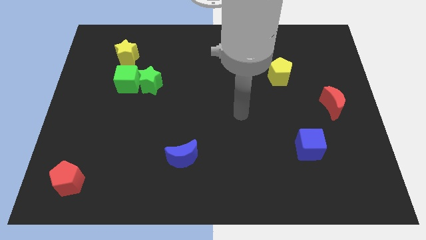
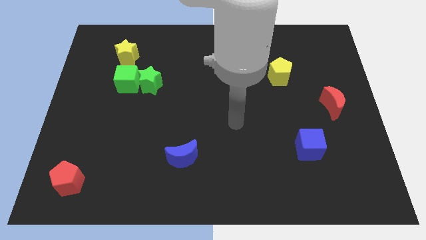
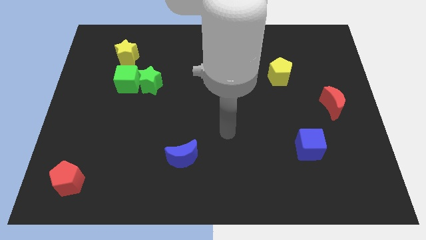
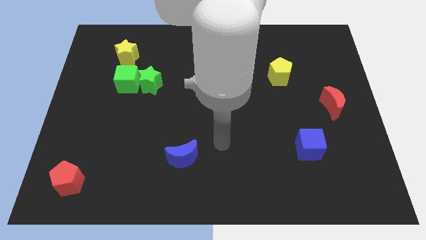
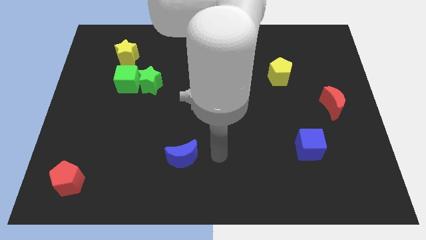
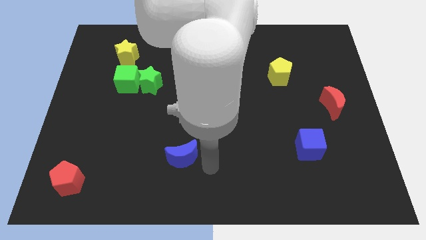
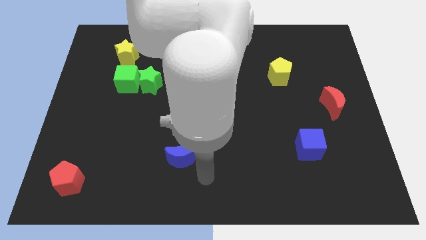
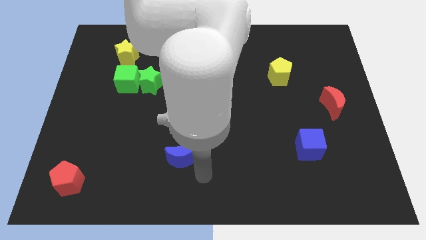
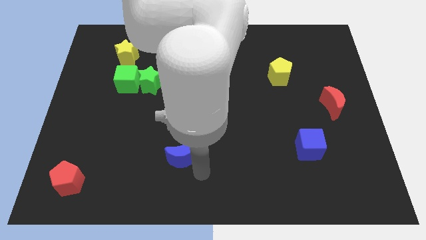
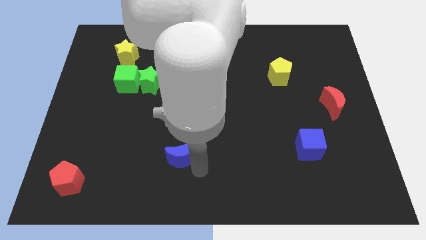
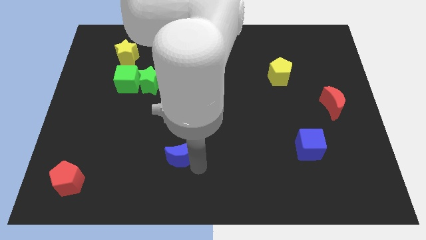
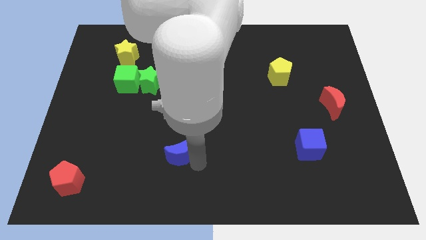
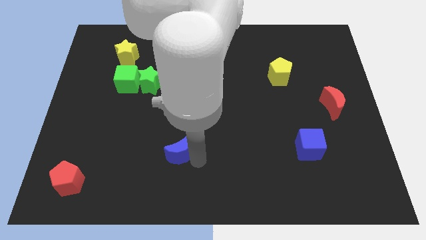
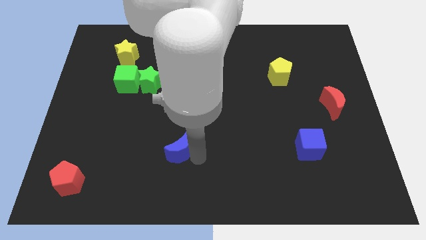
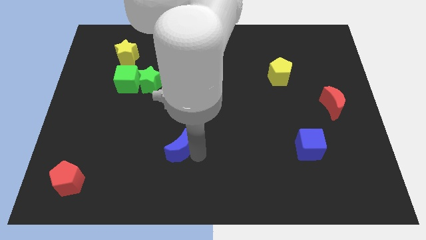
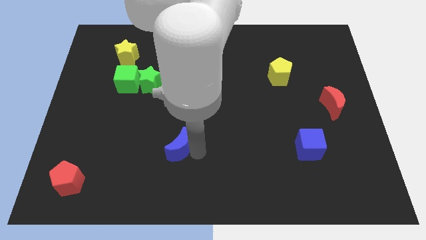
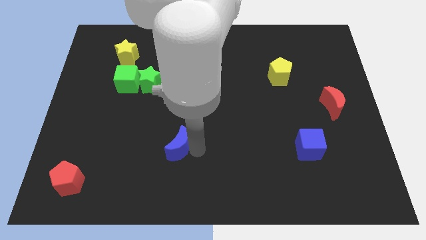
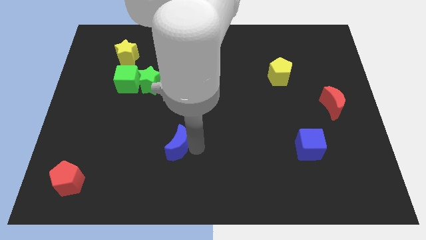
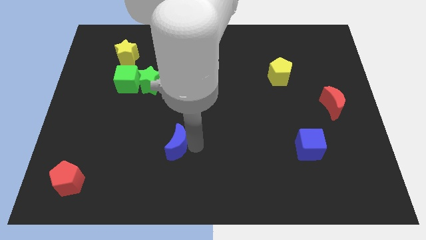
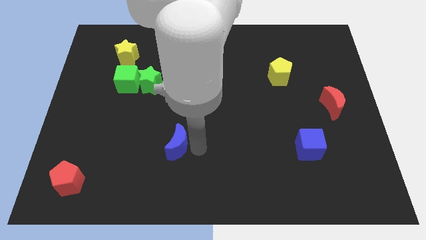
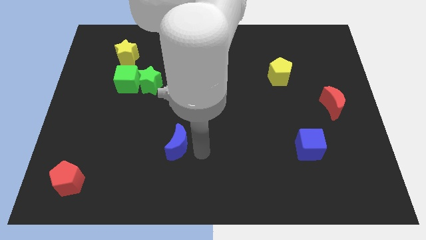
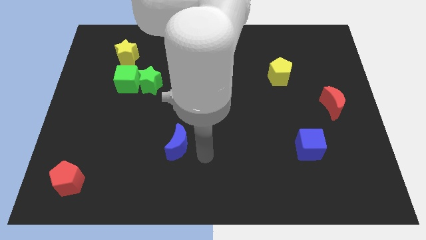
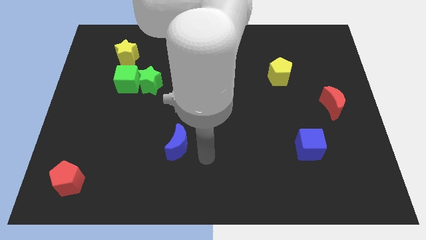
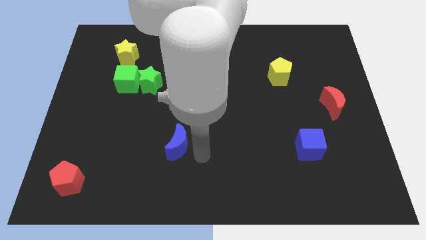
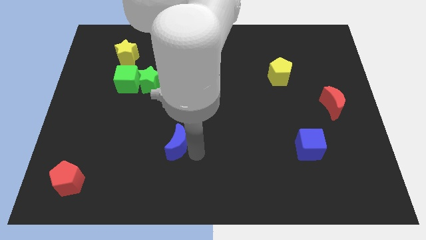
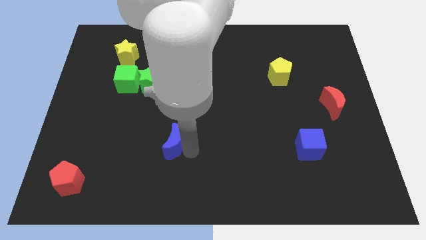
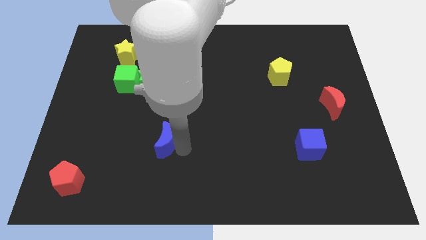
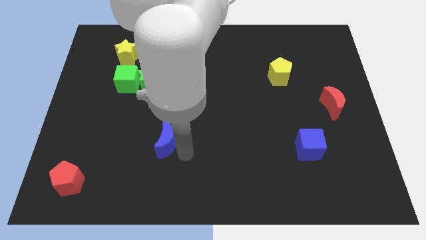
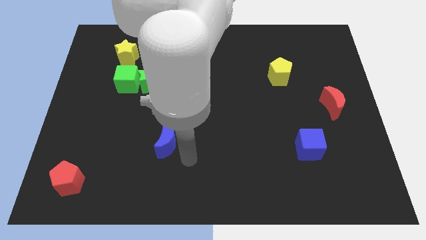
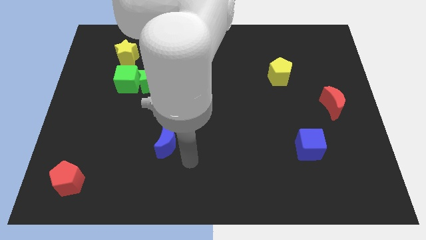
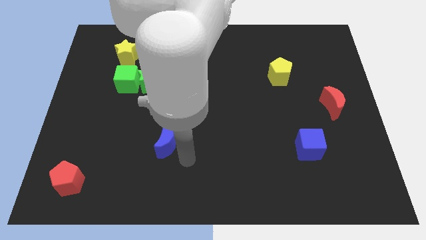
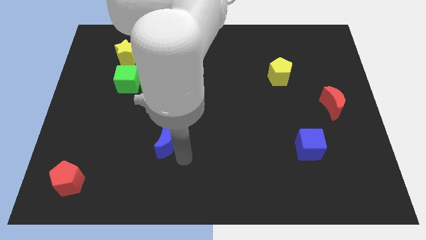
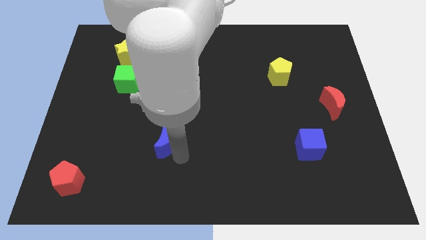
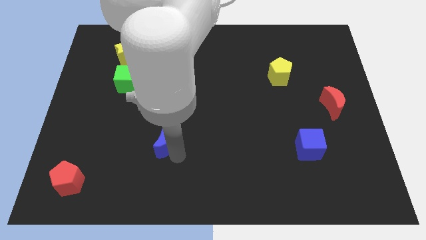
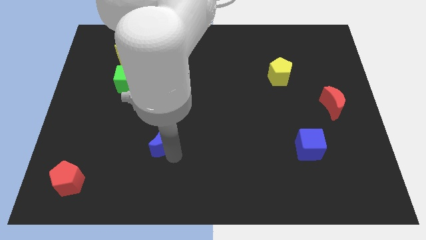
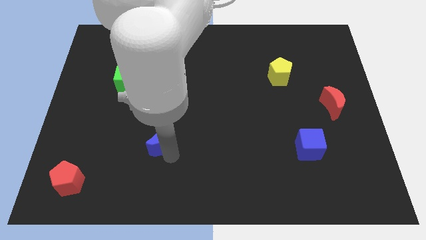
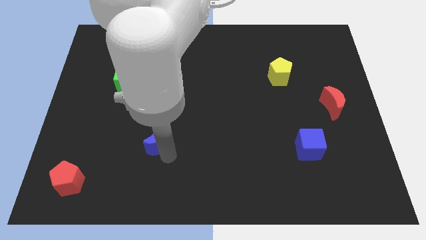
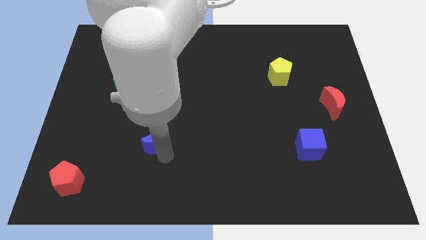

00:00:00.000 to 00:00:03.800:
slide the blue moon upwards and to the left diagonally slightly

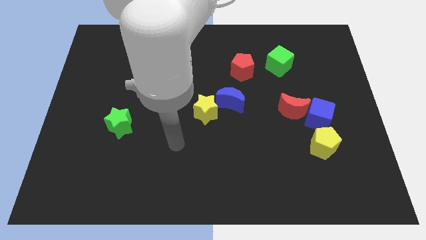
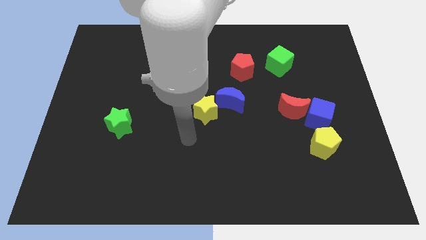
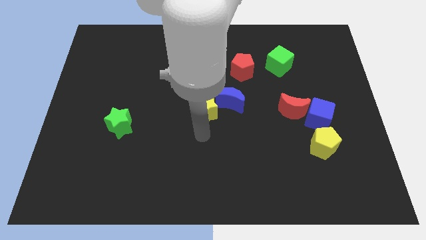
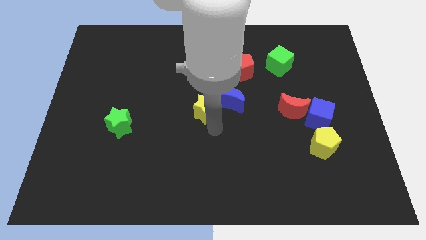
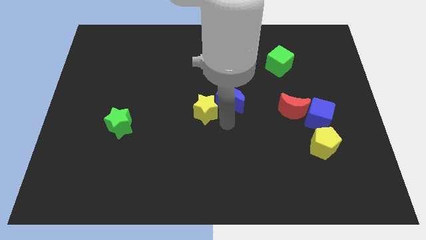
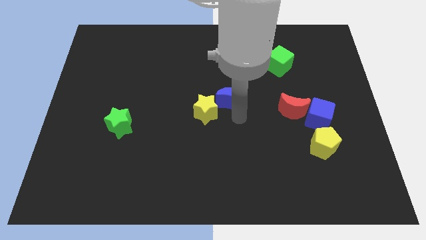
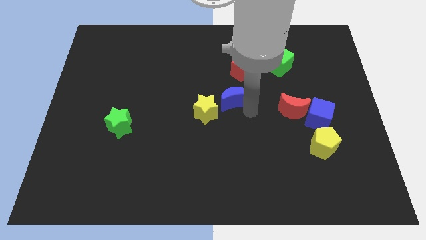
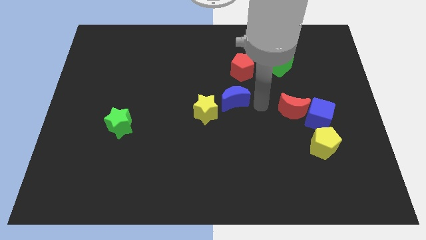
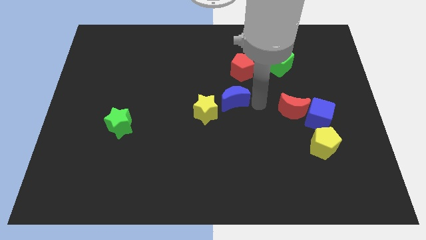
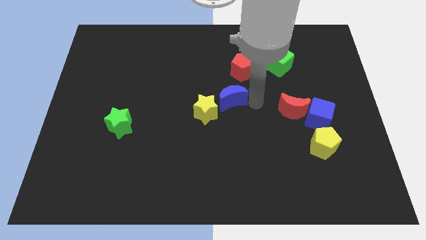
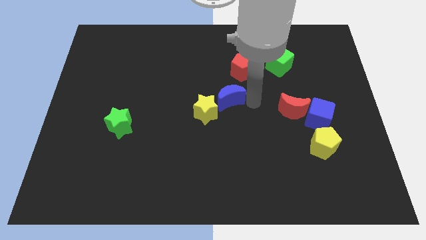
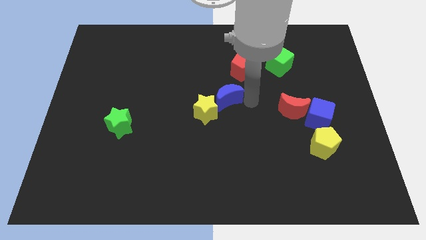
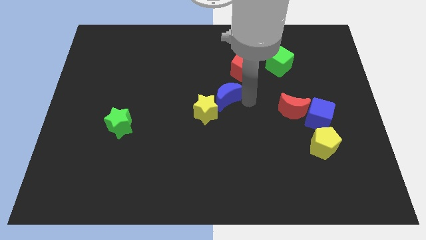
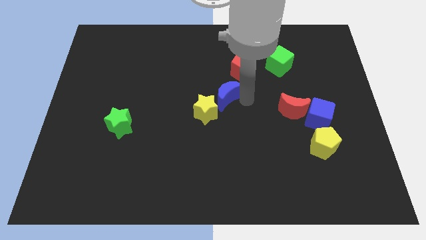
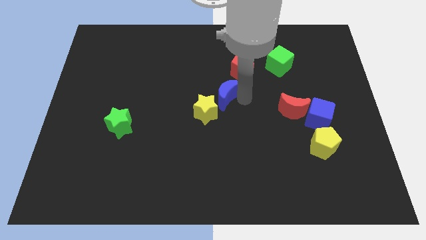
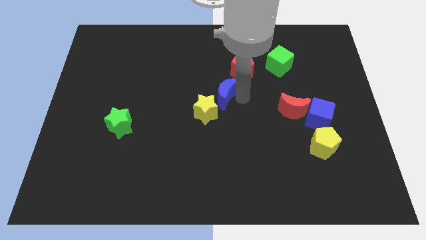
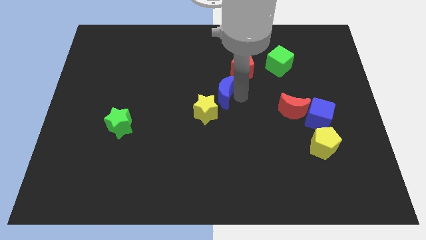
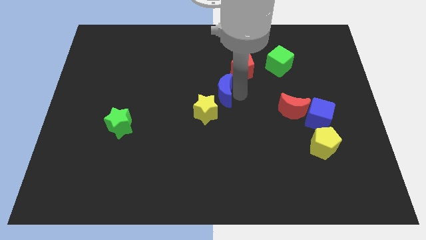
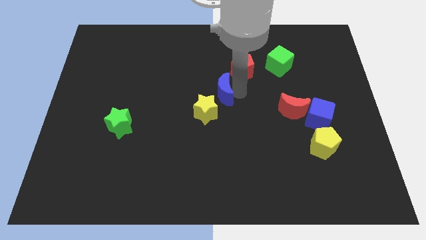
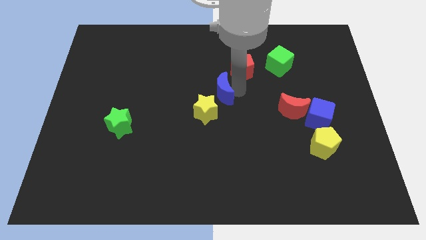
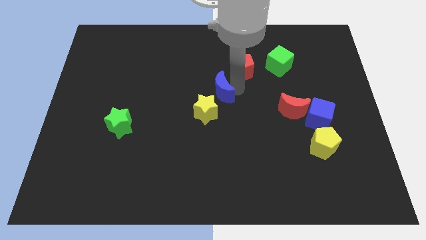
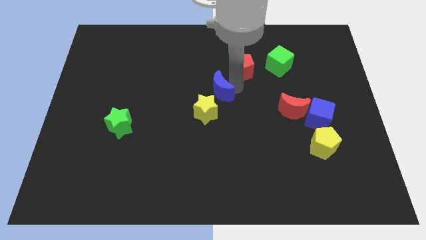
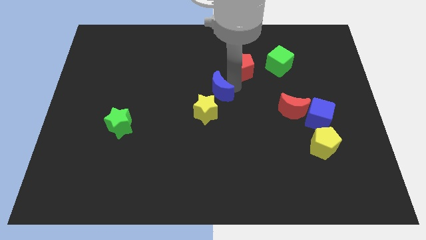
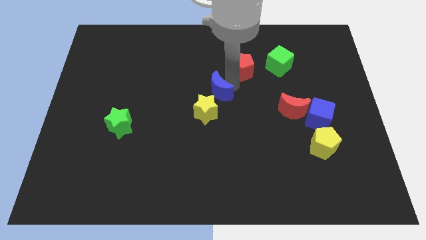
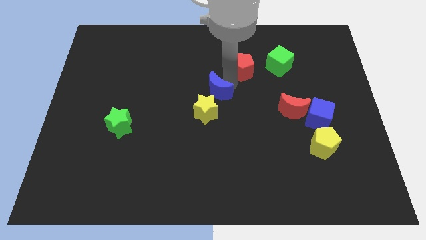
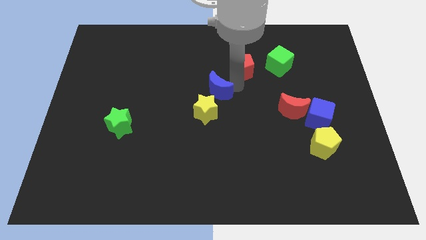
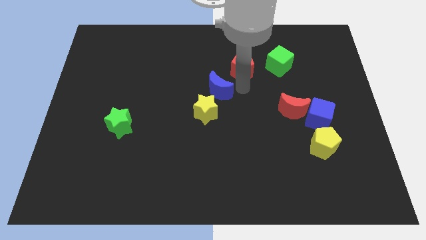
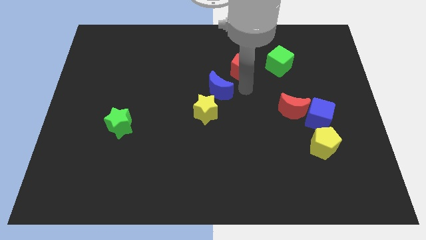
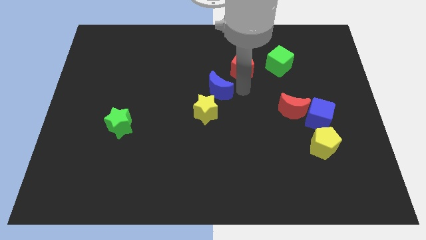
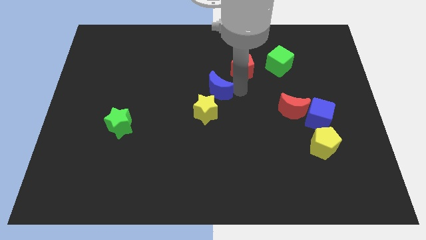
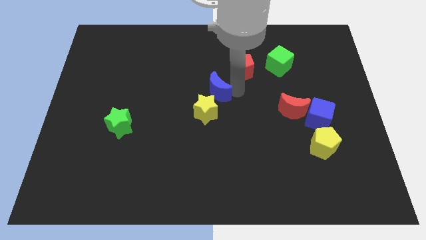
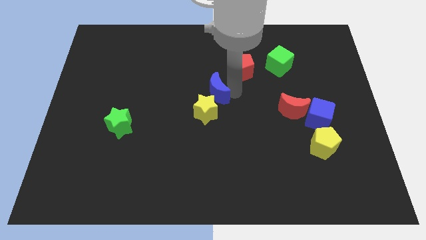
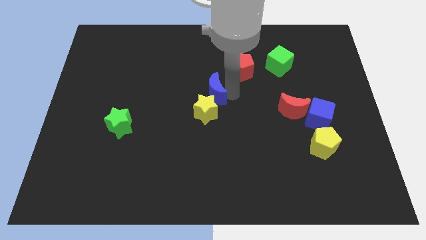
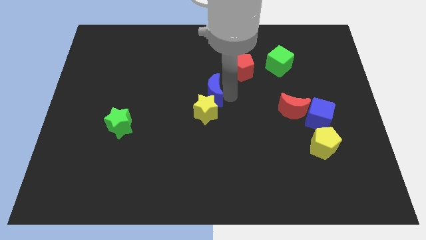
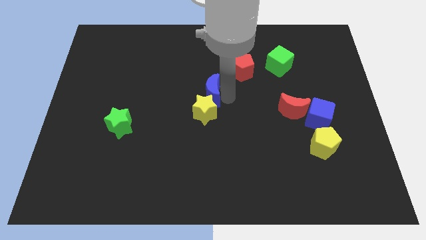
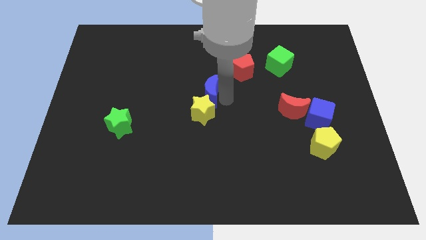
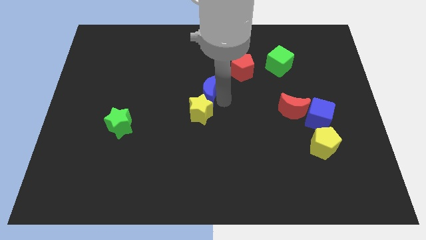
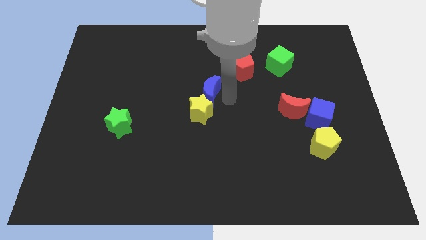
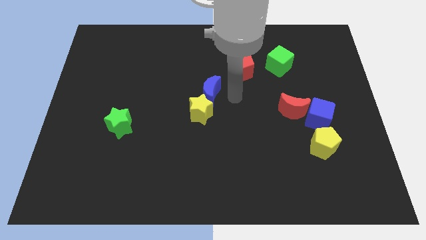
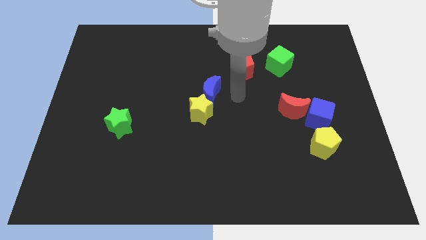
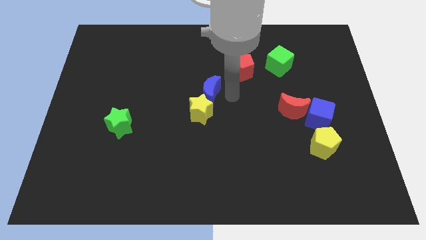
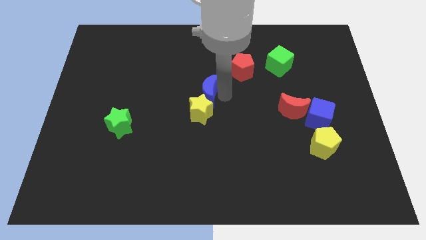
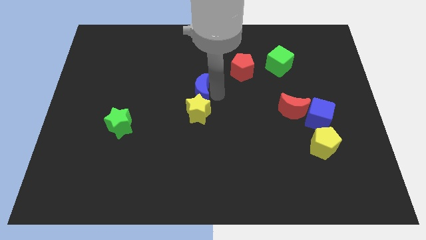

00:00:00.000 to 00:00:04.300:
push the blue moon to the left a bit
